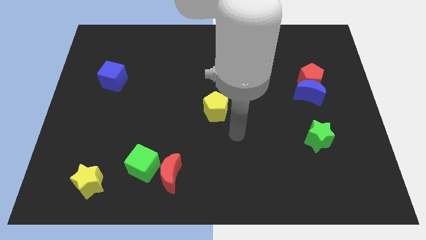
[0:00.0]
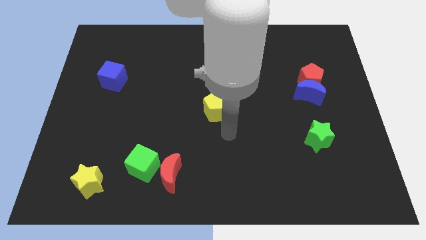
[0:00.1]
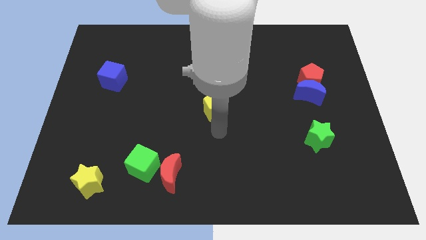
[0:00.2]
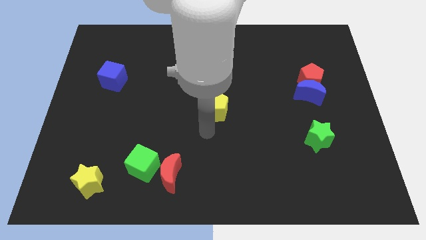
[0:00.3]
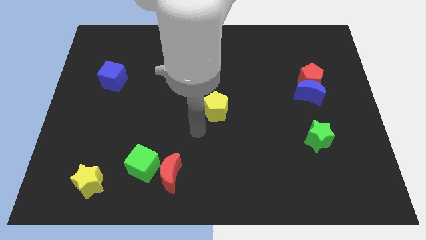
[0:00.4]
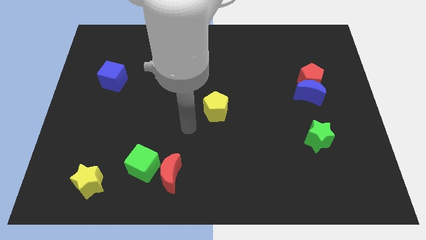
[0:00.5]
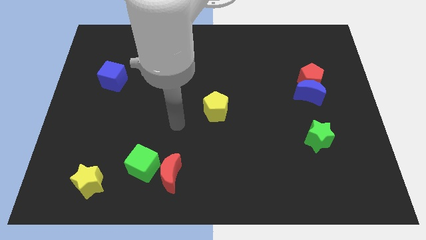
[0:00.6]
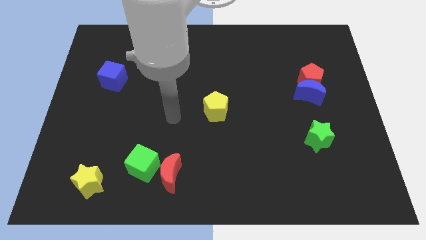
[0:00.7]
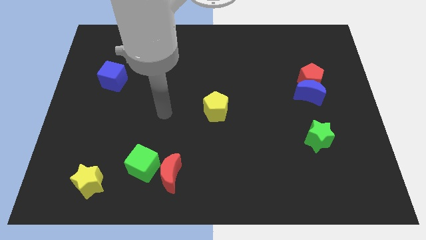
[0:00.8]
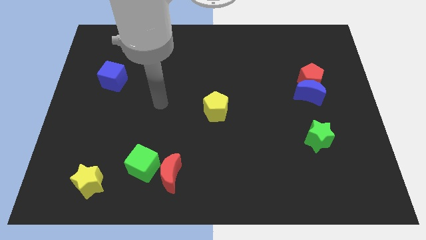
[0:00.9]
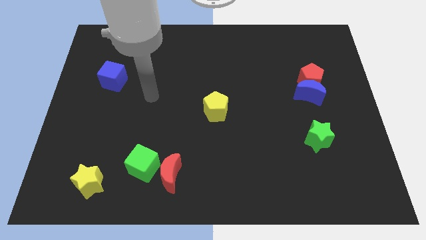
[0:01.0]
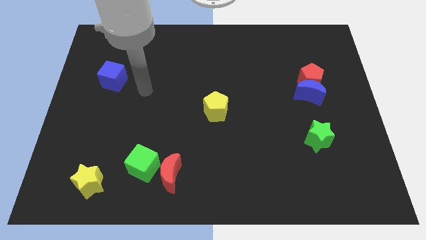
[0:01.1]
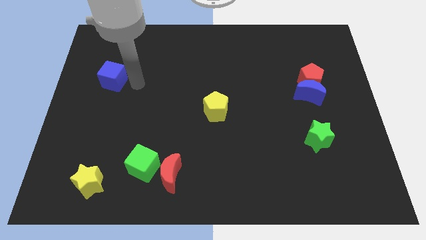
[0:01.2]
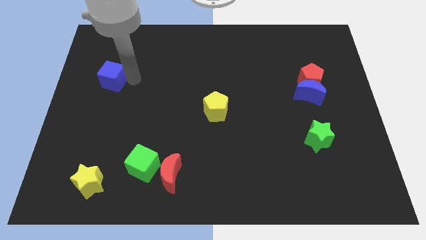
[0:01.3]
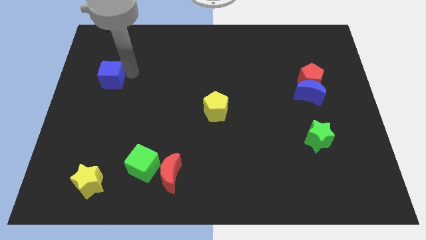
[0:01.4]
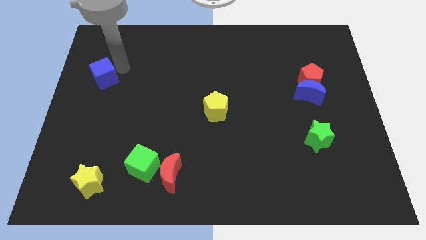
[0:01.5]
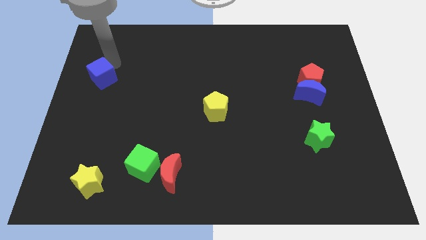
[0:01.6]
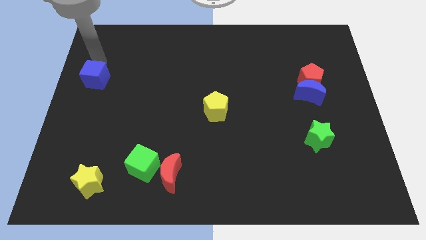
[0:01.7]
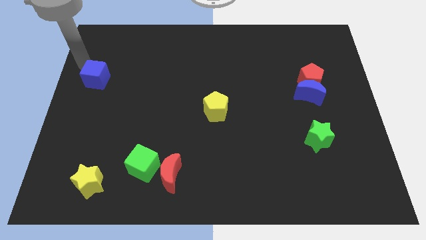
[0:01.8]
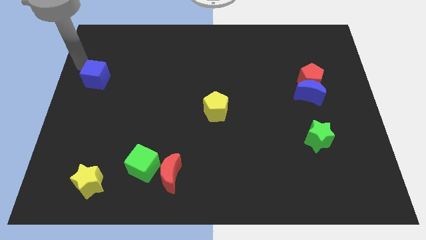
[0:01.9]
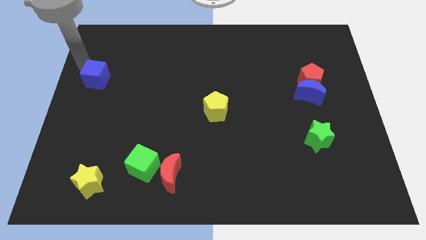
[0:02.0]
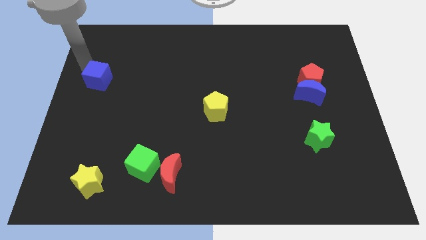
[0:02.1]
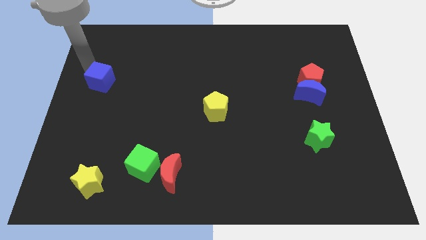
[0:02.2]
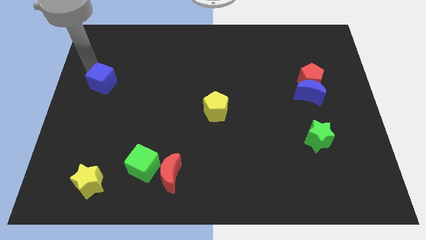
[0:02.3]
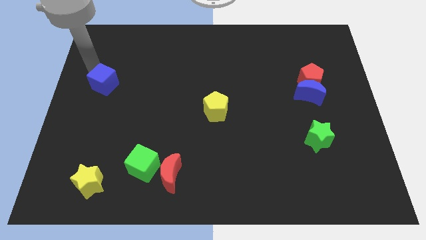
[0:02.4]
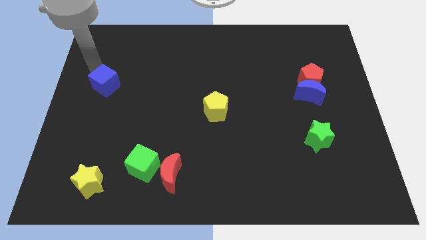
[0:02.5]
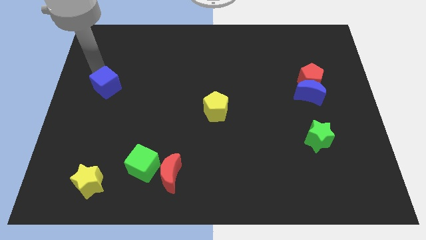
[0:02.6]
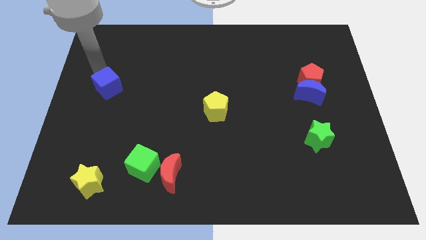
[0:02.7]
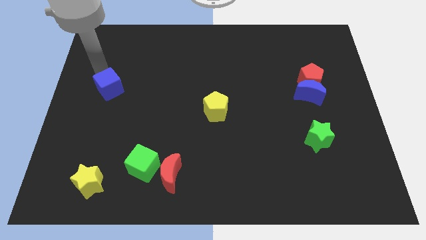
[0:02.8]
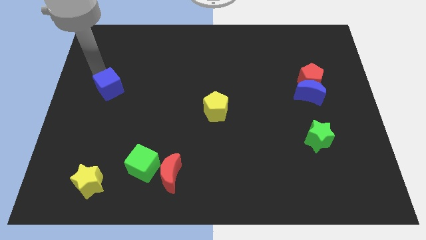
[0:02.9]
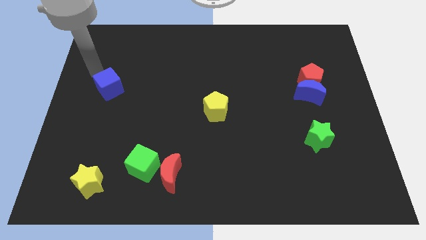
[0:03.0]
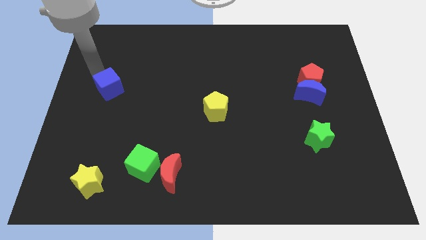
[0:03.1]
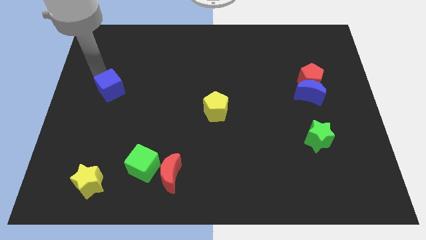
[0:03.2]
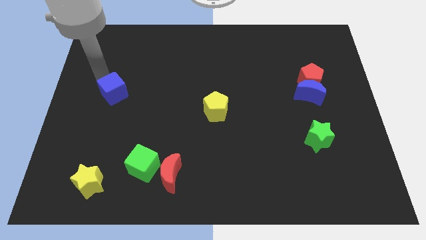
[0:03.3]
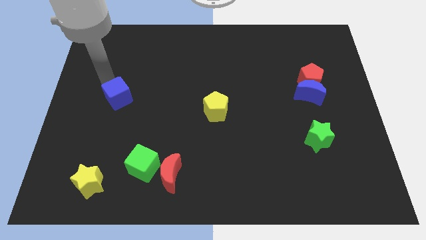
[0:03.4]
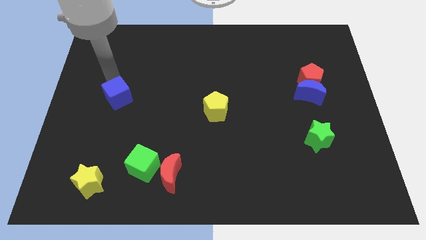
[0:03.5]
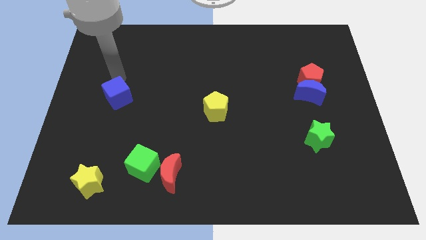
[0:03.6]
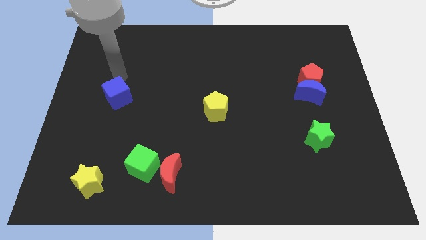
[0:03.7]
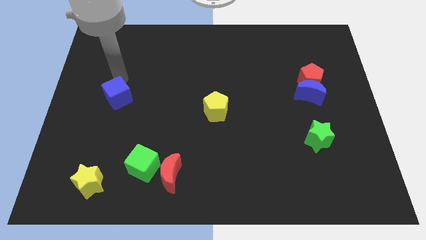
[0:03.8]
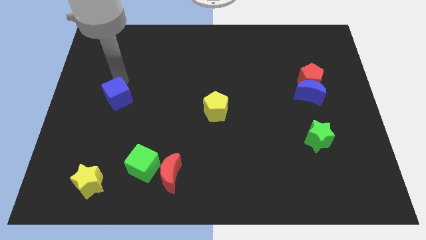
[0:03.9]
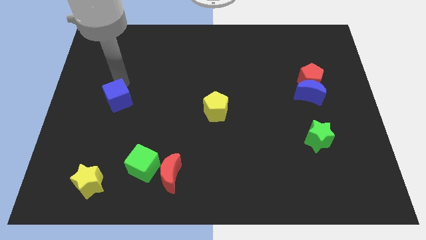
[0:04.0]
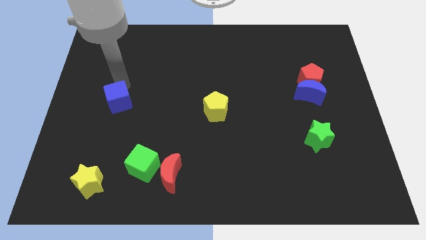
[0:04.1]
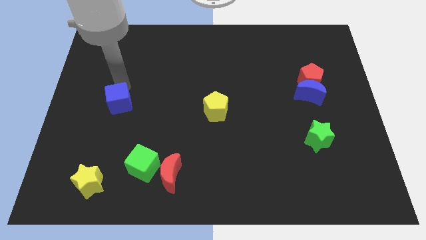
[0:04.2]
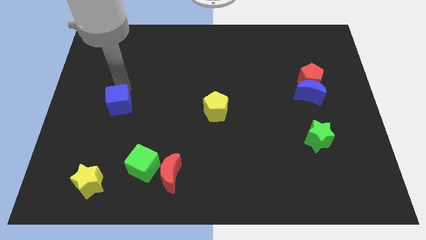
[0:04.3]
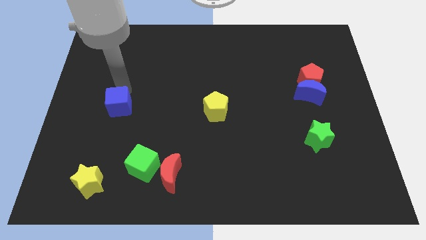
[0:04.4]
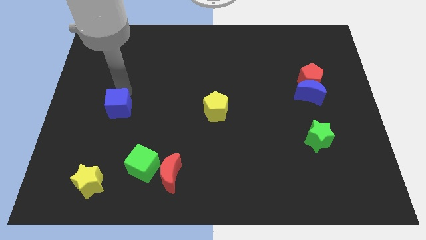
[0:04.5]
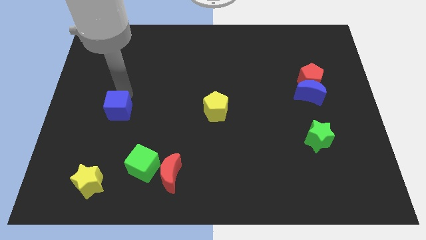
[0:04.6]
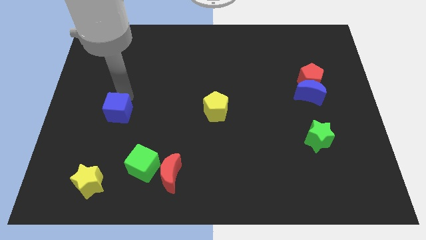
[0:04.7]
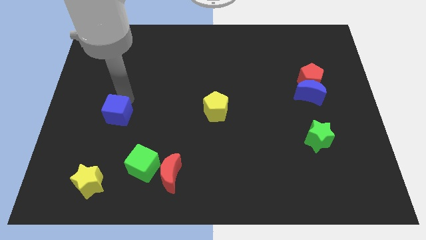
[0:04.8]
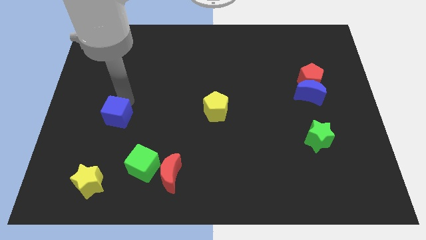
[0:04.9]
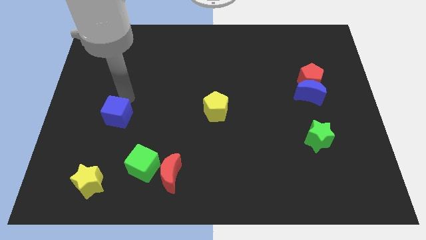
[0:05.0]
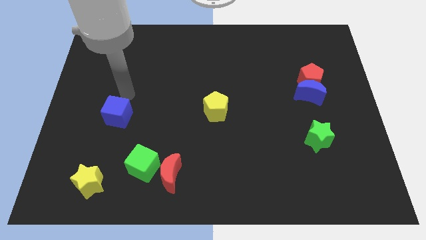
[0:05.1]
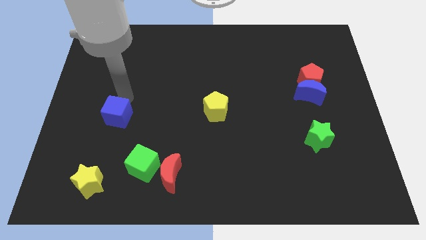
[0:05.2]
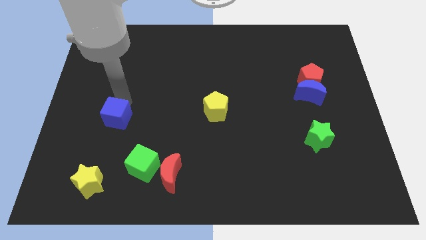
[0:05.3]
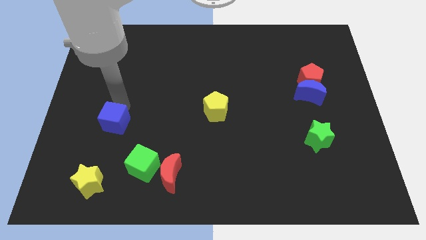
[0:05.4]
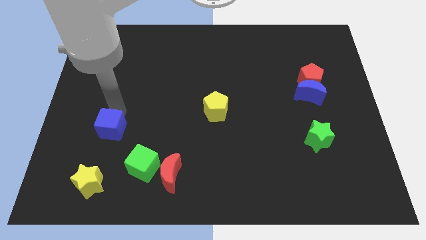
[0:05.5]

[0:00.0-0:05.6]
put the blue cube to the top left side of the green cube
